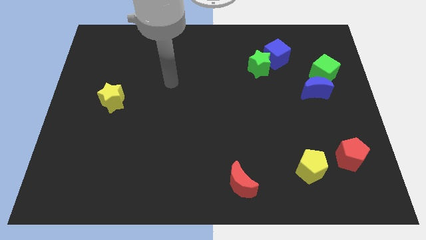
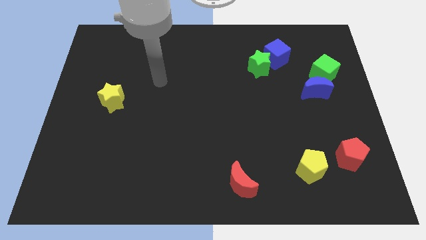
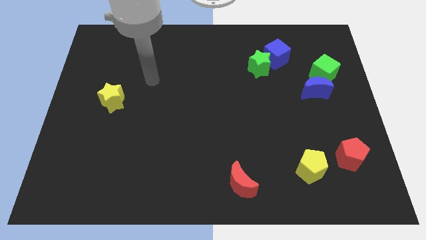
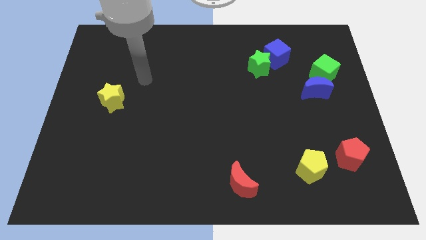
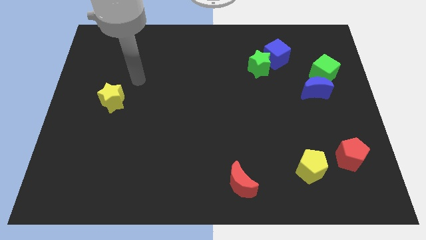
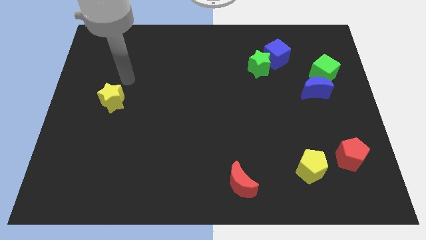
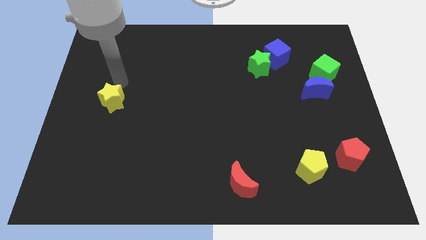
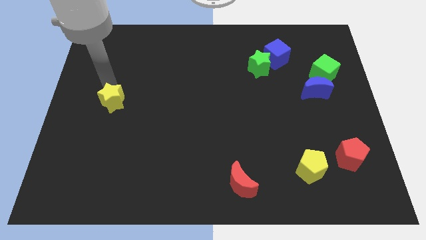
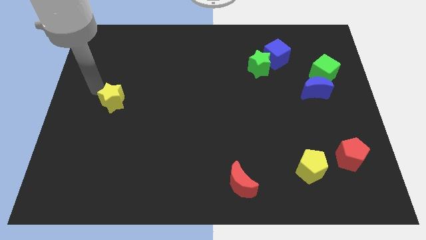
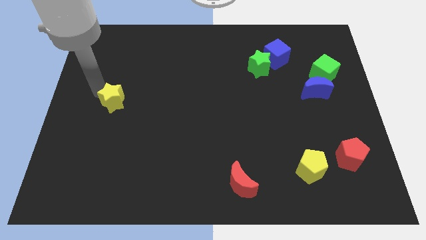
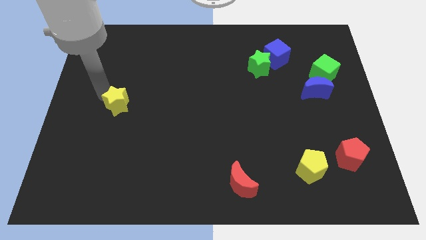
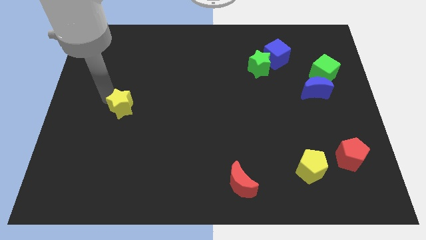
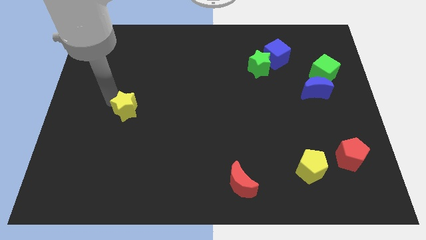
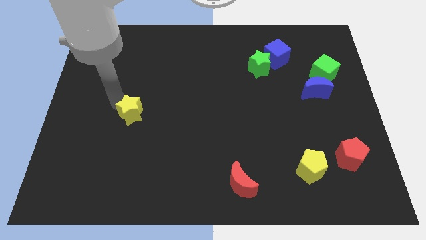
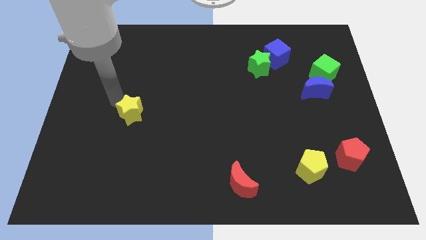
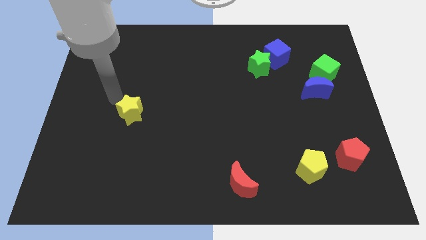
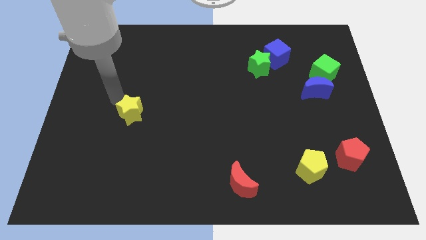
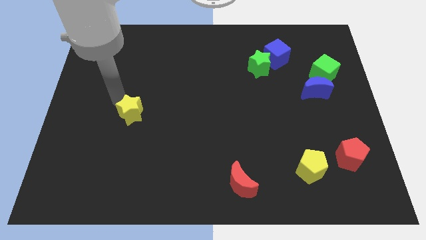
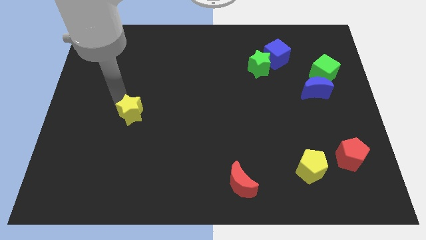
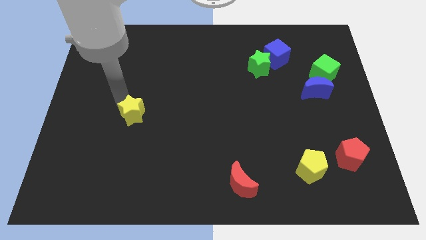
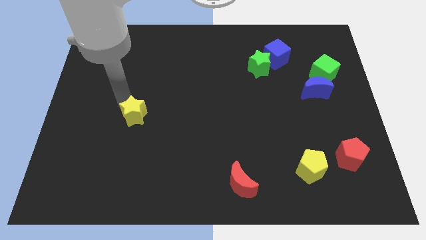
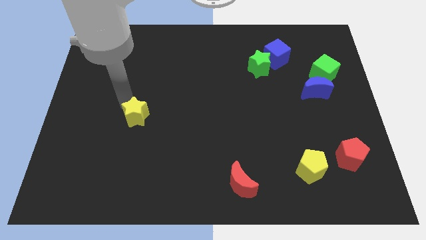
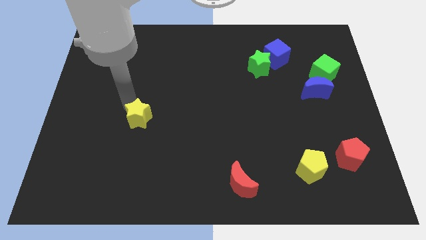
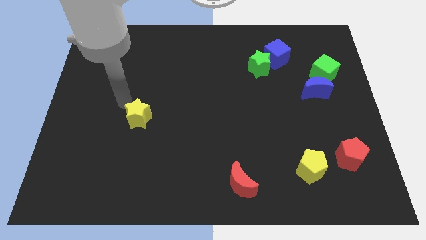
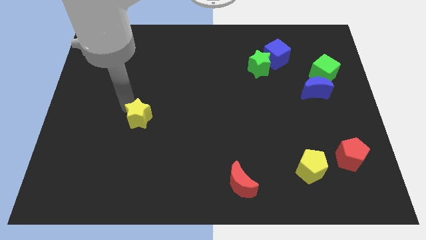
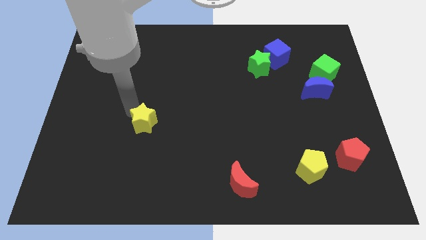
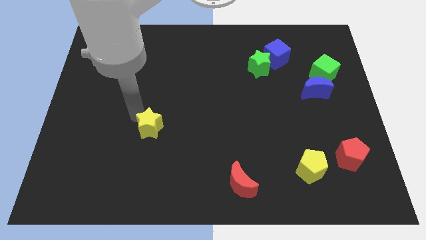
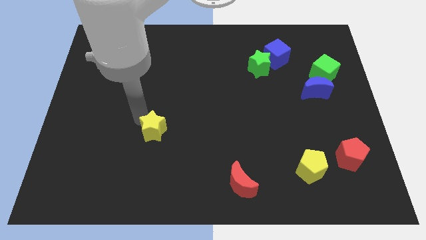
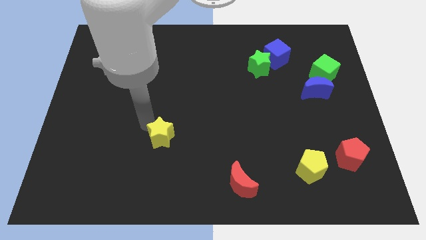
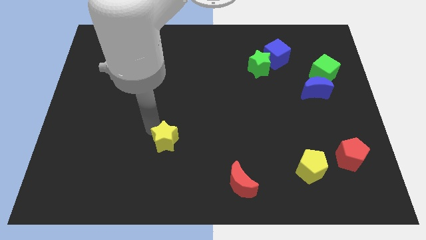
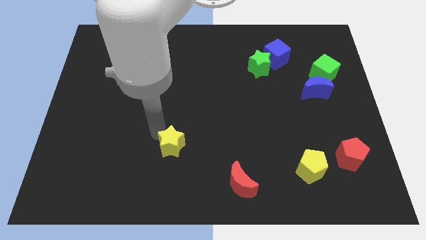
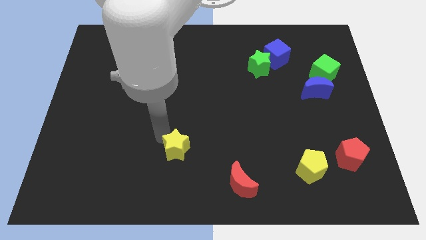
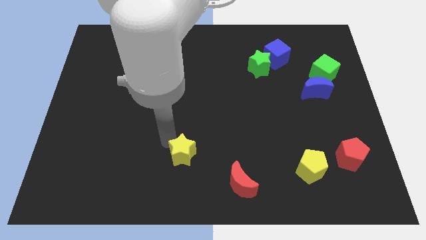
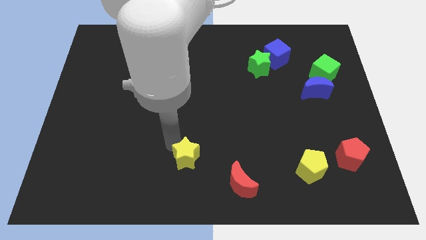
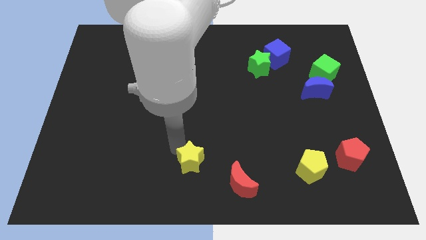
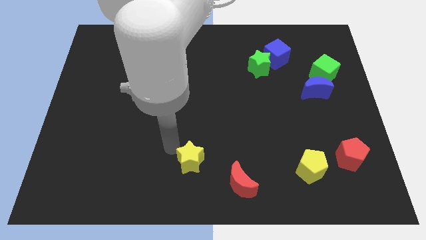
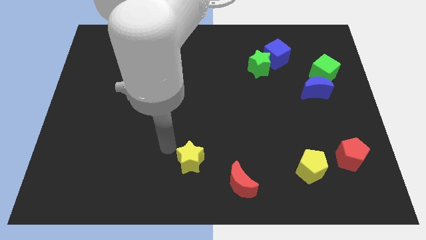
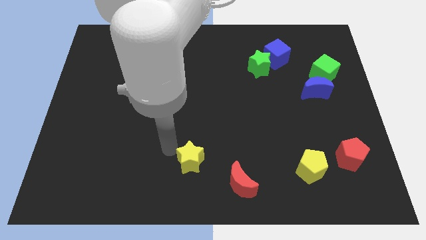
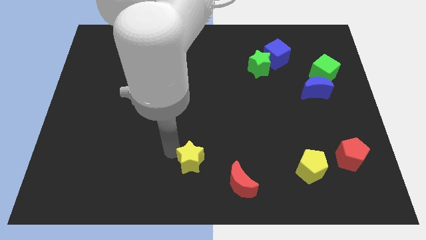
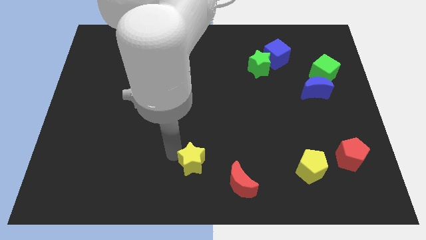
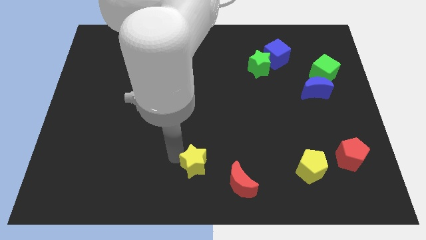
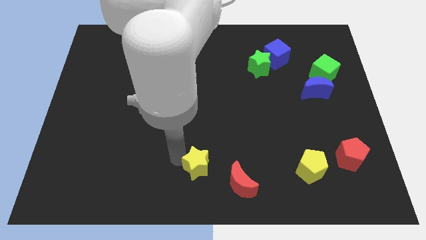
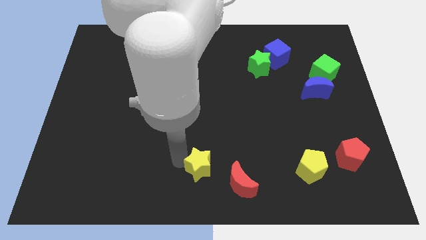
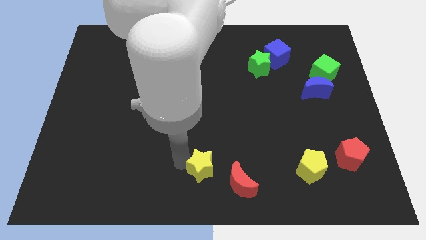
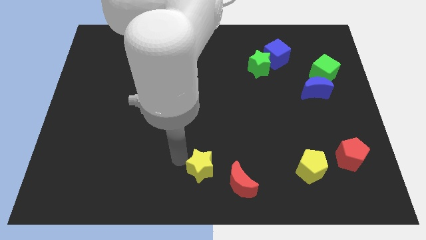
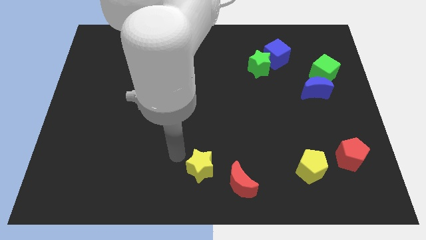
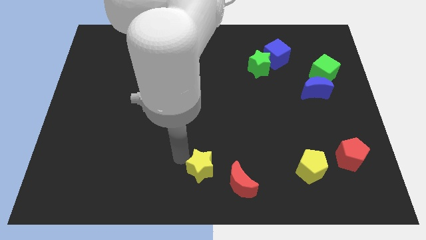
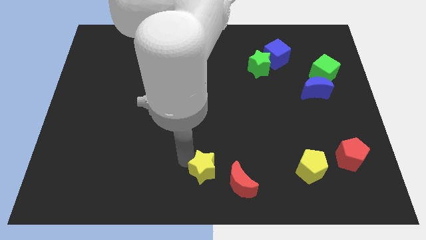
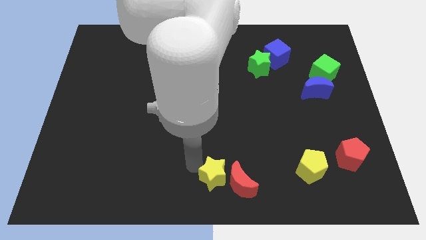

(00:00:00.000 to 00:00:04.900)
move the yellow star close to the red moon

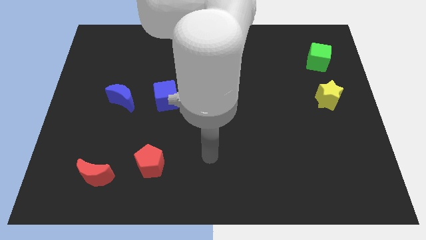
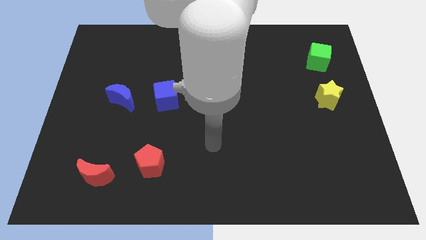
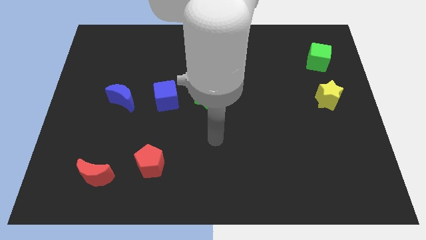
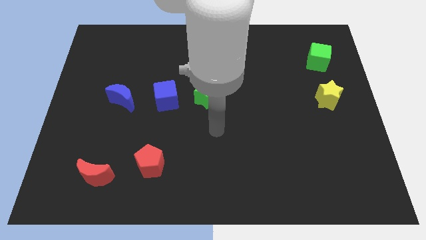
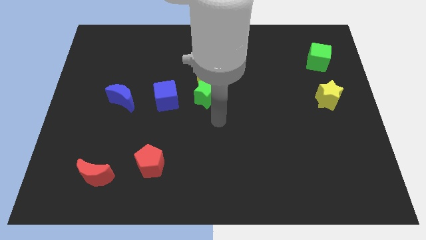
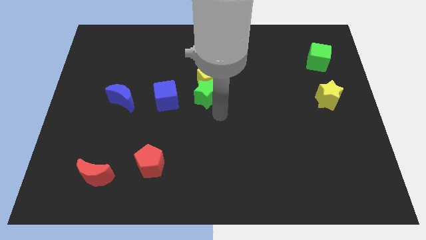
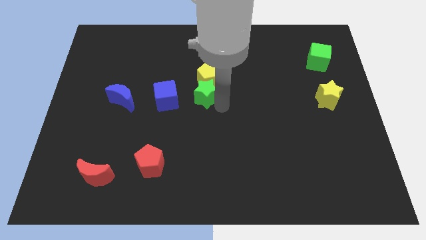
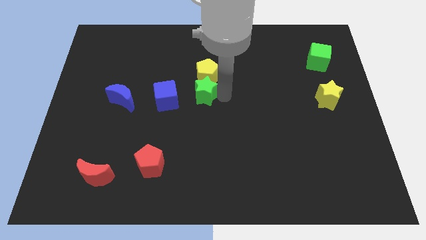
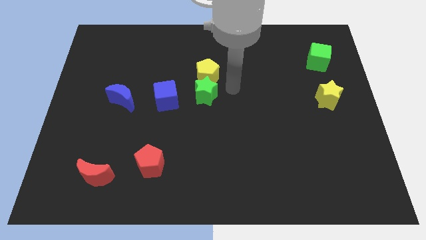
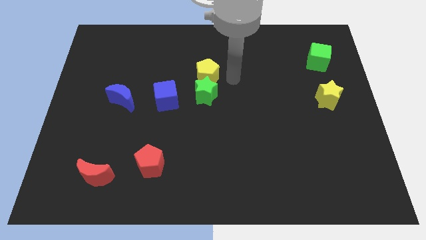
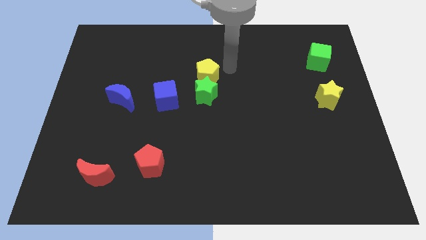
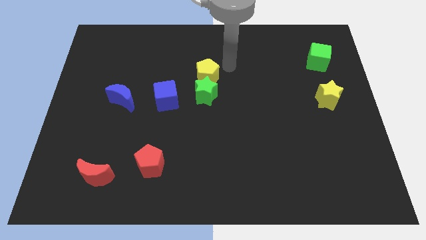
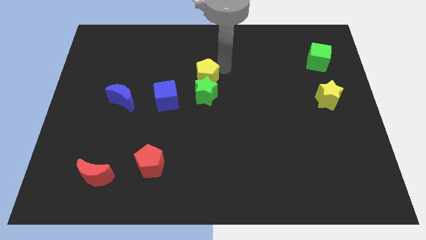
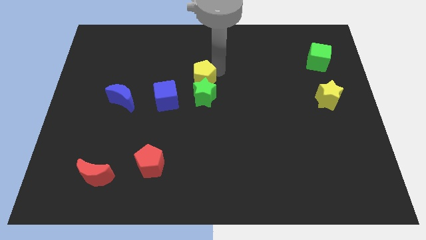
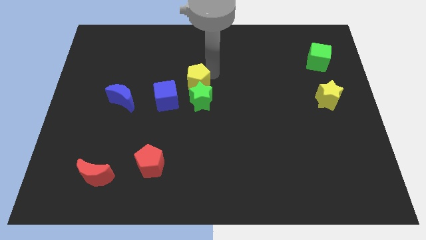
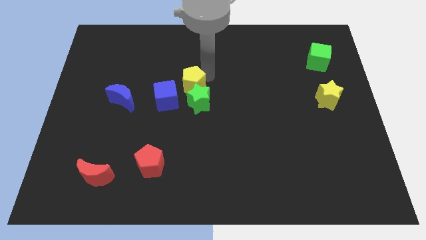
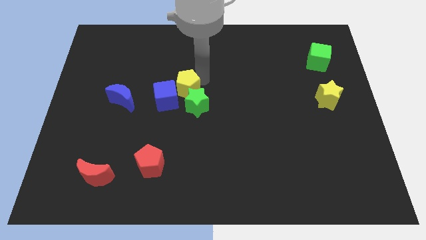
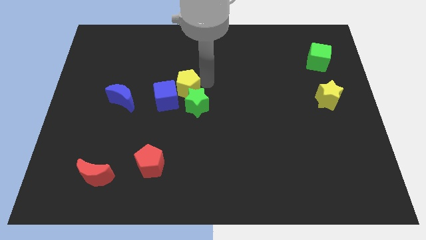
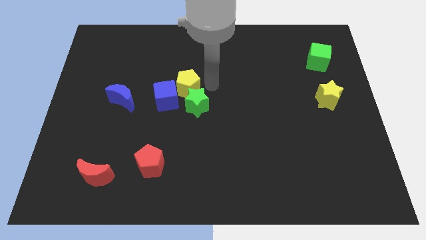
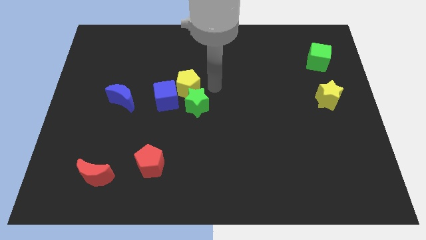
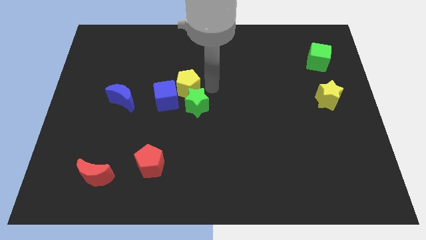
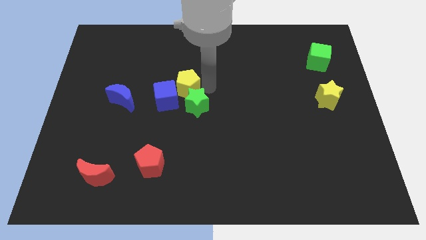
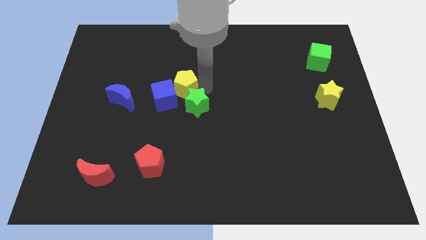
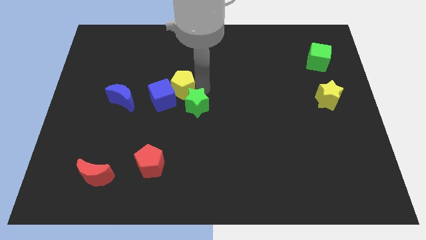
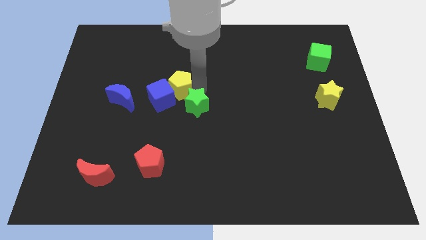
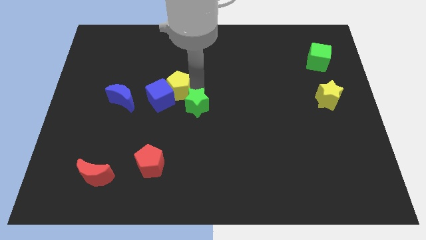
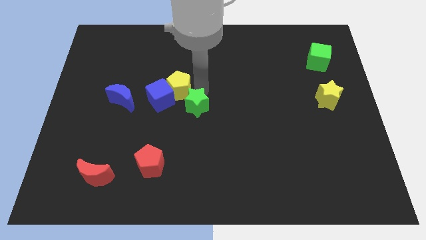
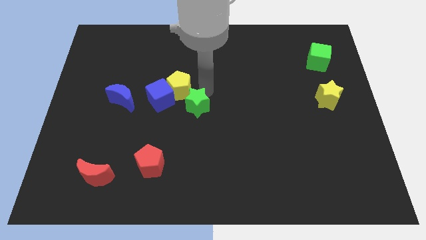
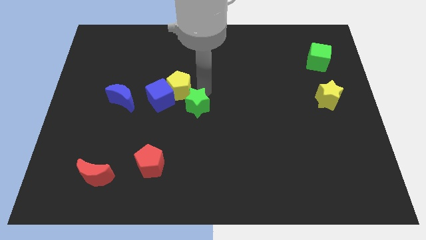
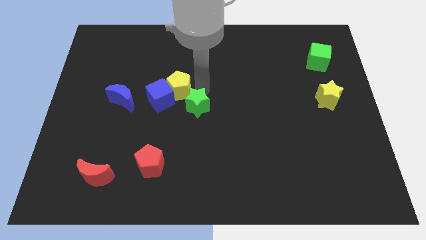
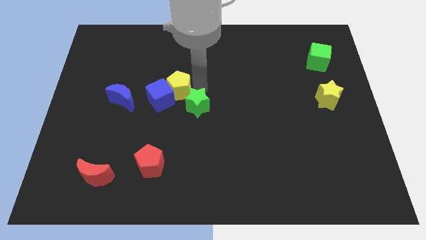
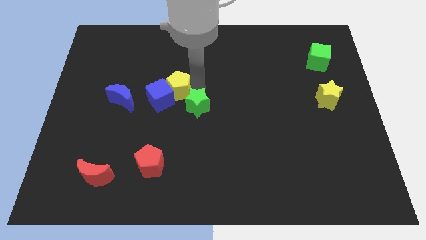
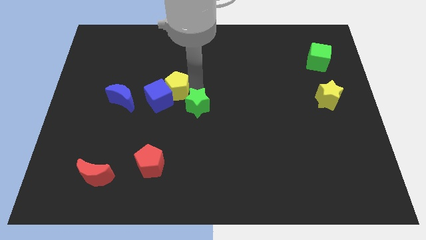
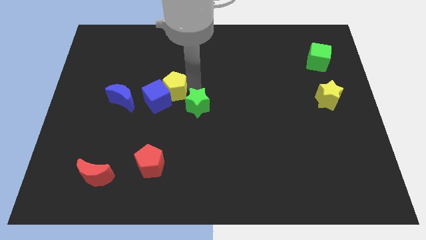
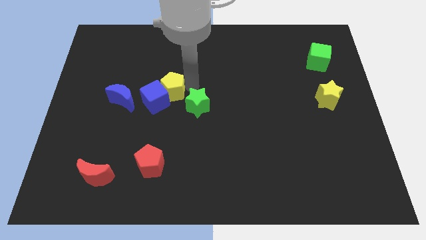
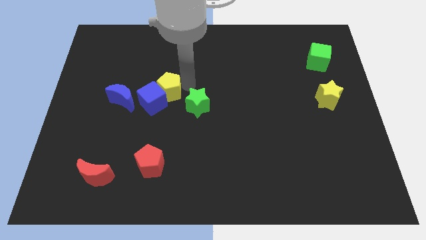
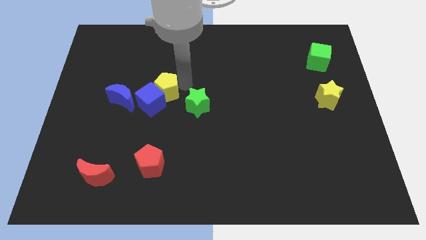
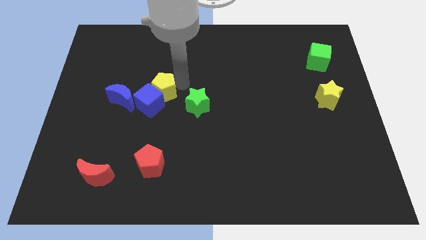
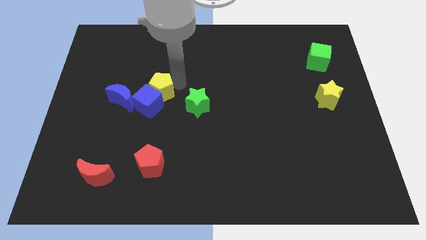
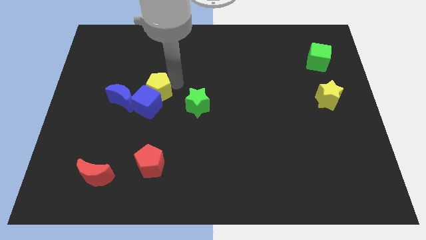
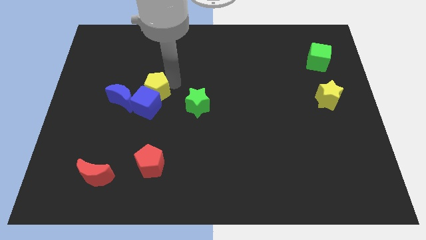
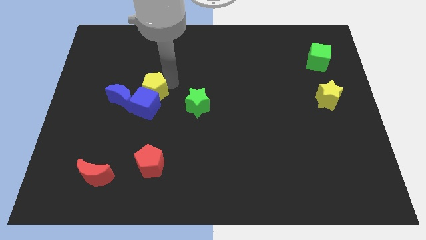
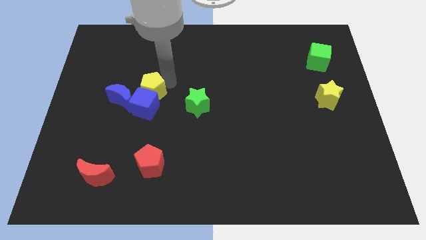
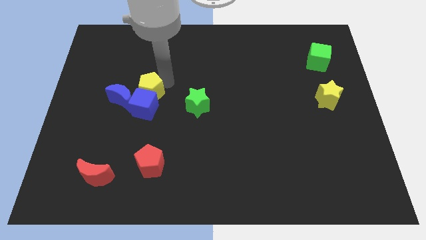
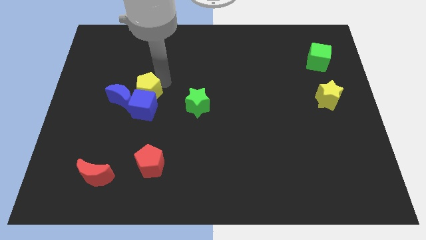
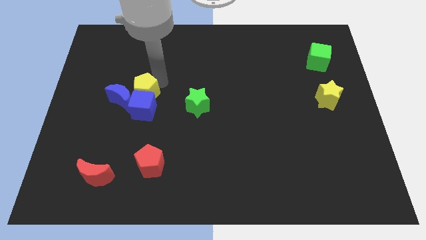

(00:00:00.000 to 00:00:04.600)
push the yellow pentagon towards the blue moon
